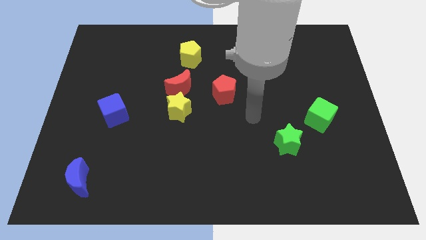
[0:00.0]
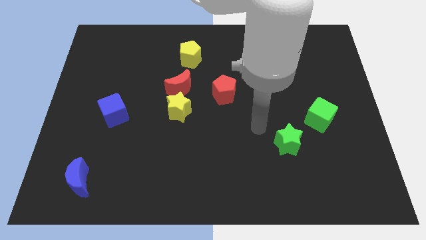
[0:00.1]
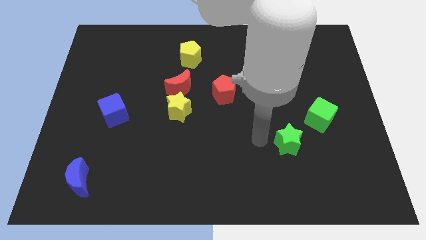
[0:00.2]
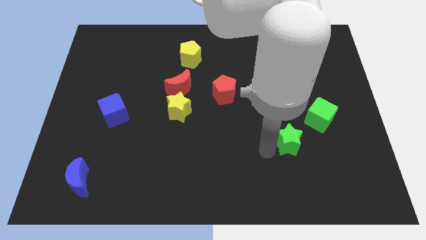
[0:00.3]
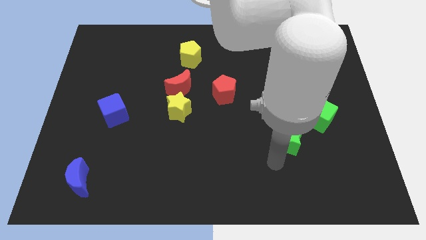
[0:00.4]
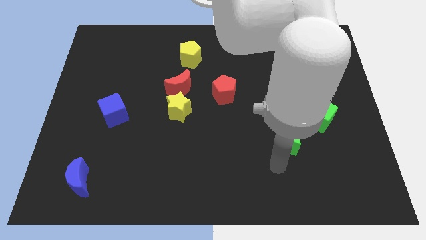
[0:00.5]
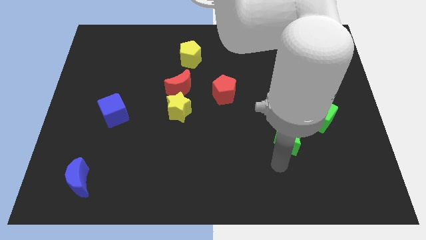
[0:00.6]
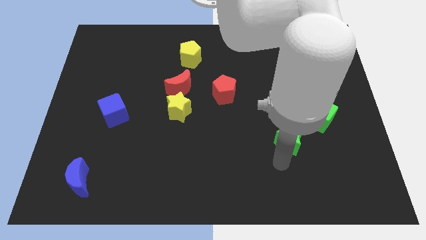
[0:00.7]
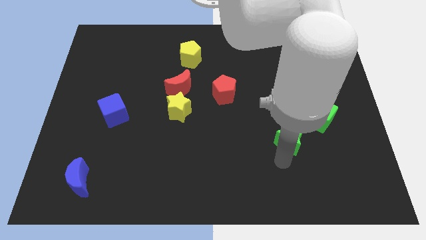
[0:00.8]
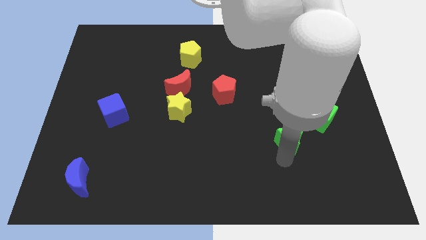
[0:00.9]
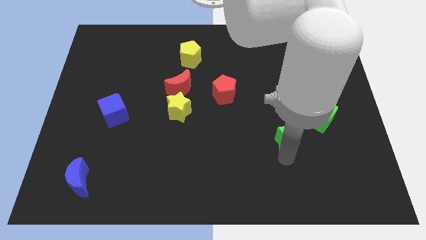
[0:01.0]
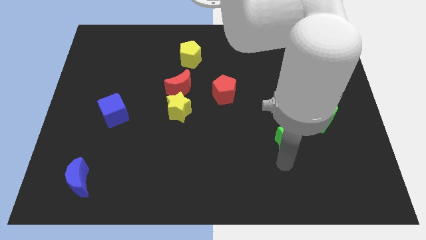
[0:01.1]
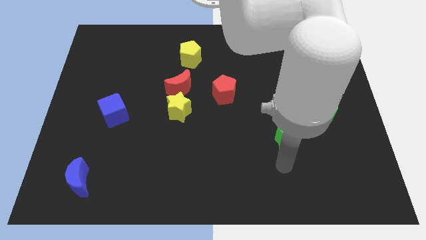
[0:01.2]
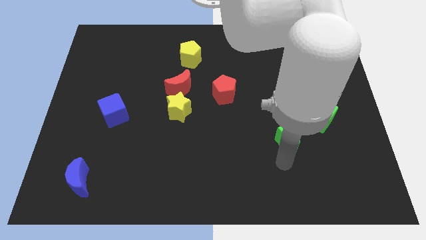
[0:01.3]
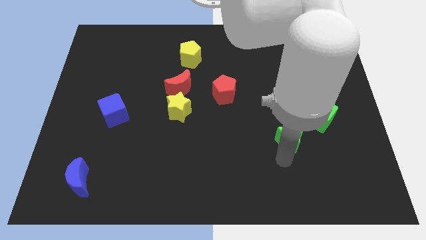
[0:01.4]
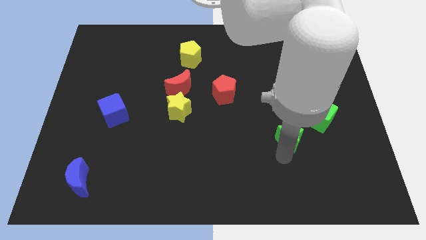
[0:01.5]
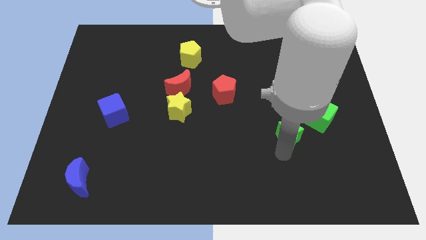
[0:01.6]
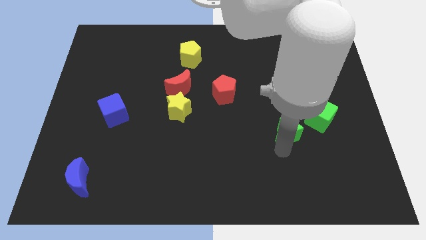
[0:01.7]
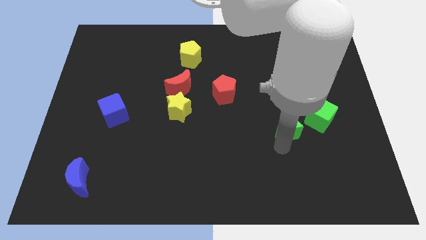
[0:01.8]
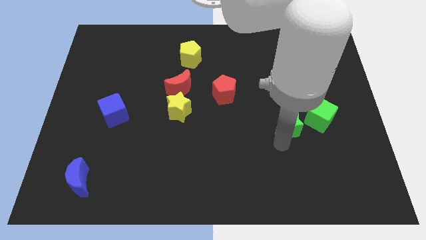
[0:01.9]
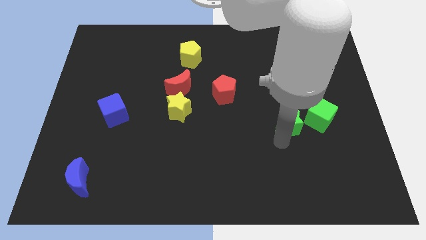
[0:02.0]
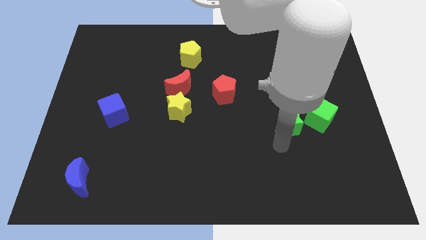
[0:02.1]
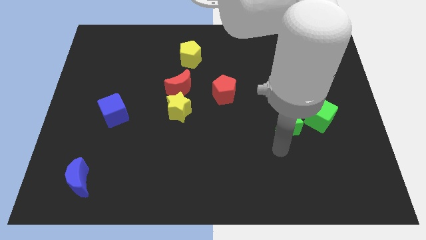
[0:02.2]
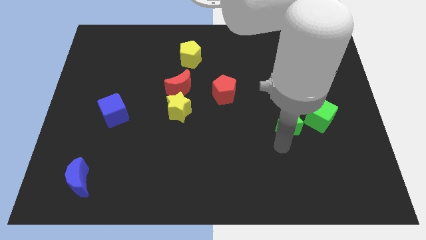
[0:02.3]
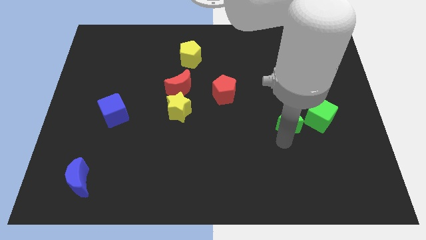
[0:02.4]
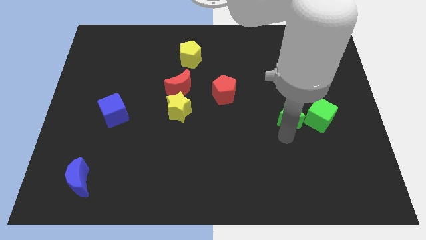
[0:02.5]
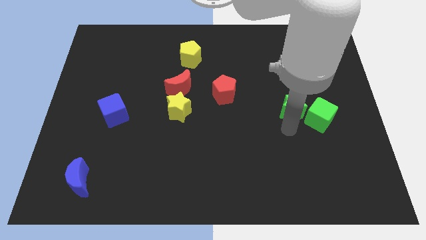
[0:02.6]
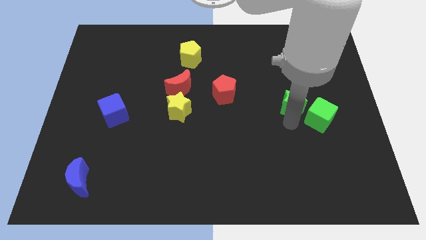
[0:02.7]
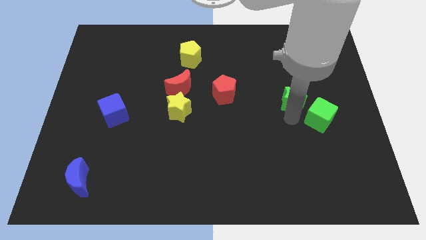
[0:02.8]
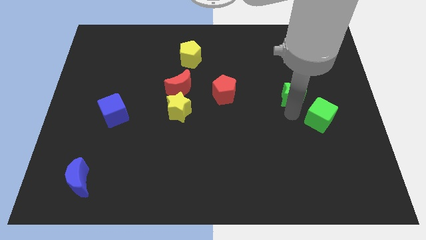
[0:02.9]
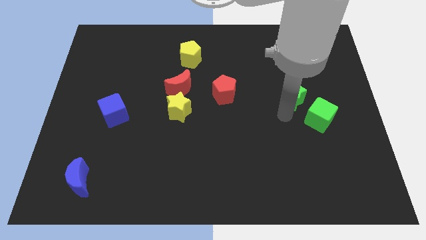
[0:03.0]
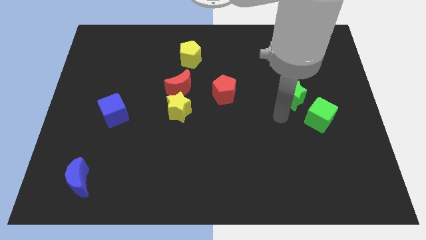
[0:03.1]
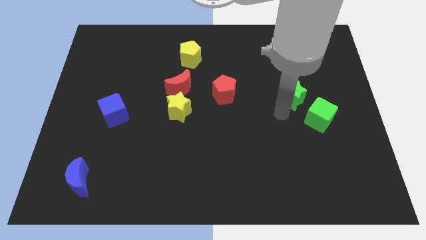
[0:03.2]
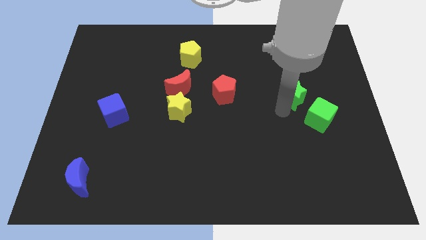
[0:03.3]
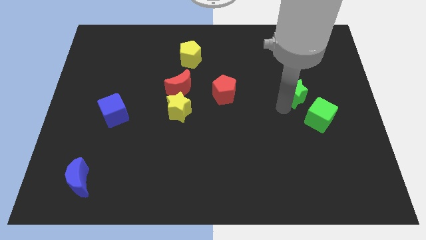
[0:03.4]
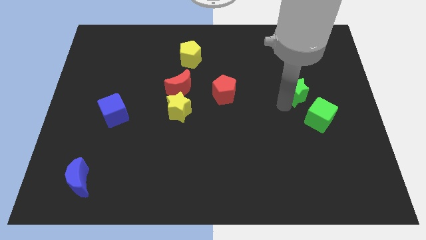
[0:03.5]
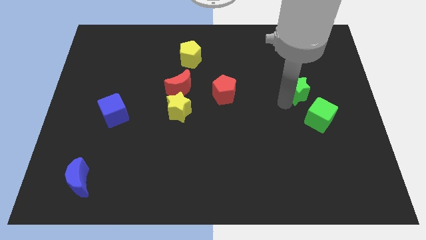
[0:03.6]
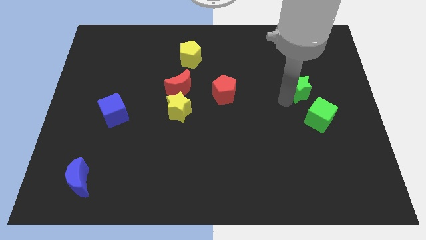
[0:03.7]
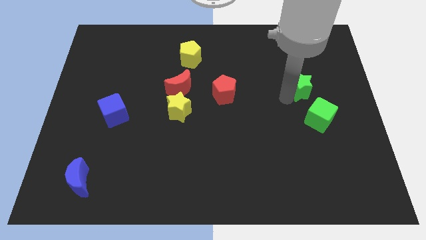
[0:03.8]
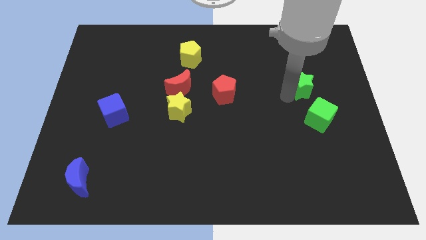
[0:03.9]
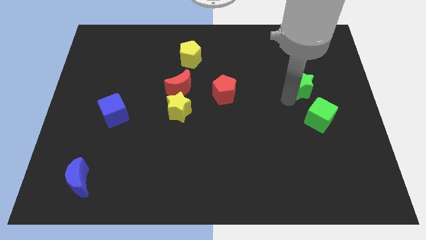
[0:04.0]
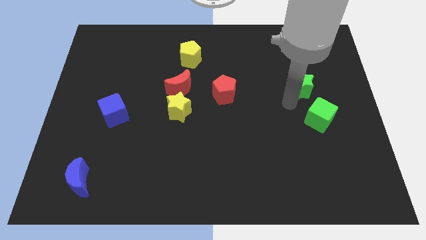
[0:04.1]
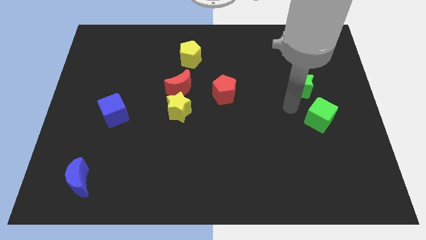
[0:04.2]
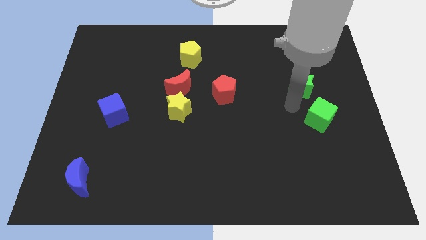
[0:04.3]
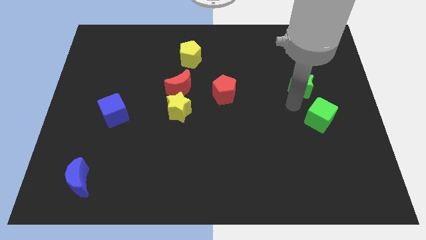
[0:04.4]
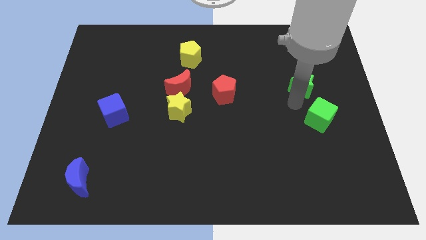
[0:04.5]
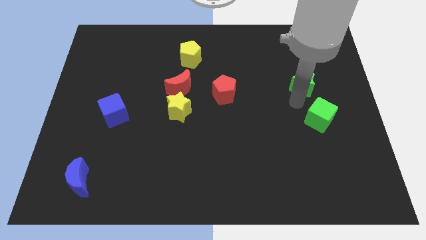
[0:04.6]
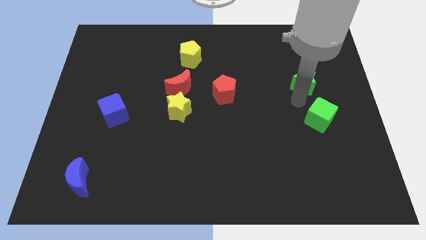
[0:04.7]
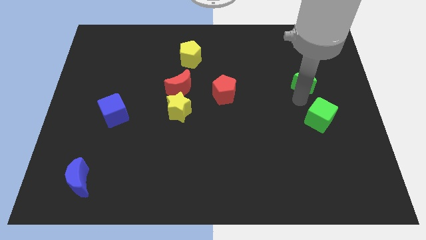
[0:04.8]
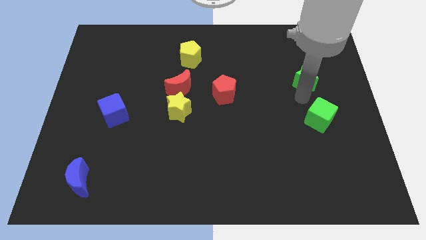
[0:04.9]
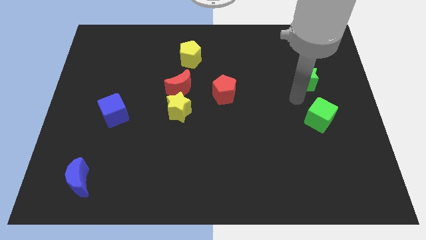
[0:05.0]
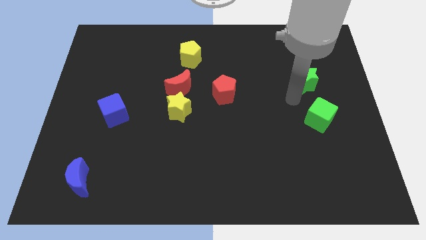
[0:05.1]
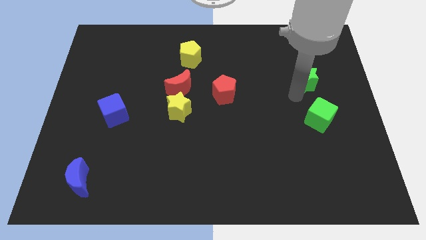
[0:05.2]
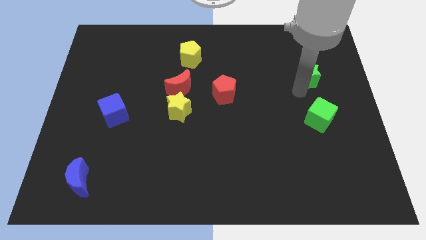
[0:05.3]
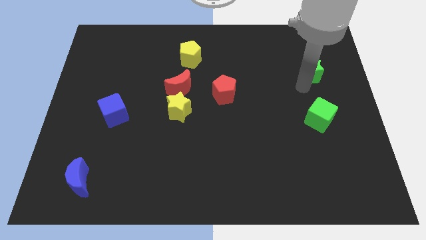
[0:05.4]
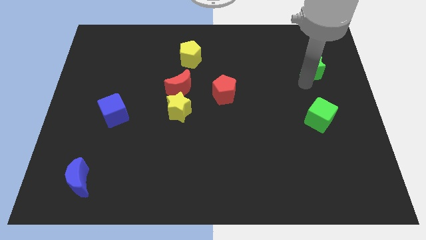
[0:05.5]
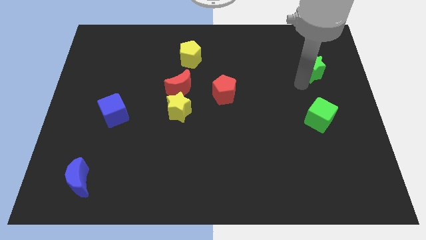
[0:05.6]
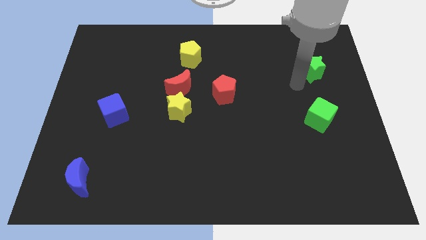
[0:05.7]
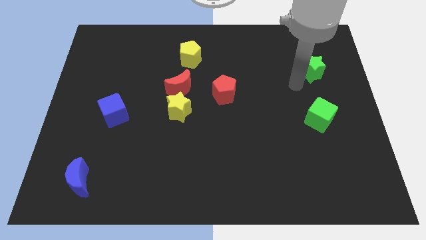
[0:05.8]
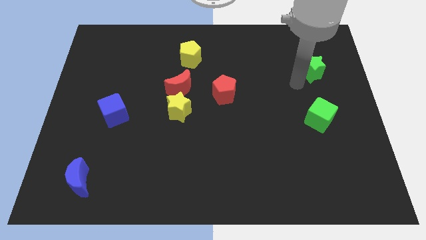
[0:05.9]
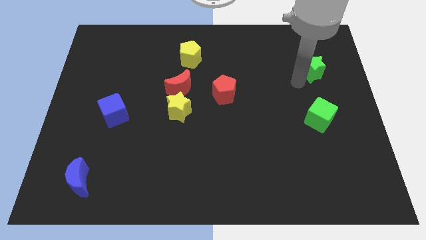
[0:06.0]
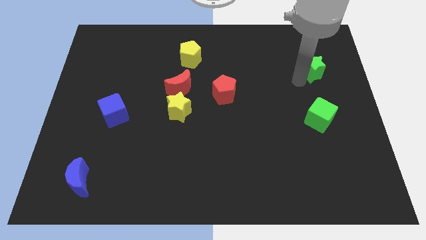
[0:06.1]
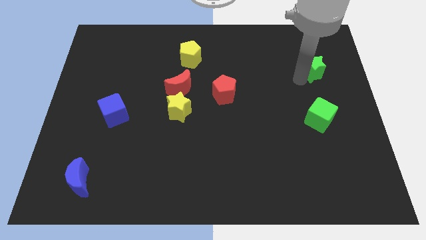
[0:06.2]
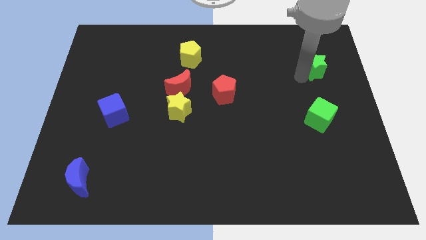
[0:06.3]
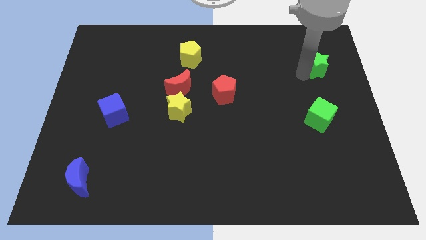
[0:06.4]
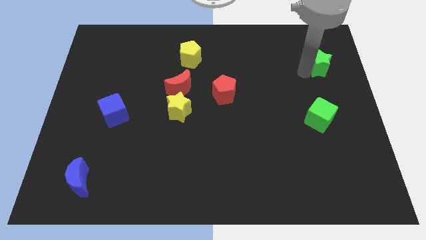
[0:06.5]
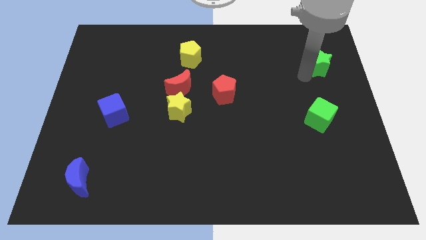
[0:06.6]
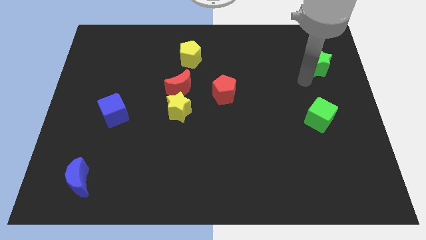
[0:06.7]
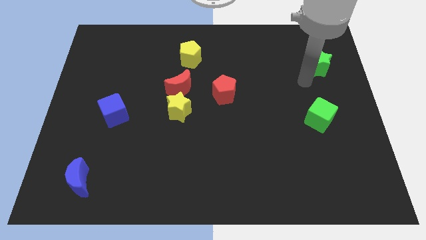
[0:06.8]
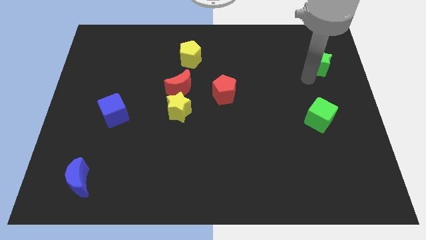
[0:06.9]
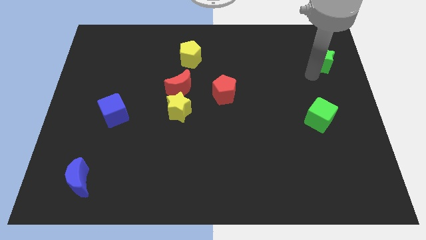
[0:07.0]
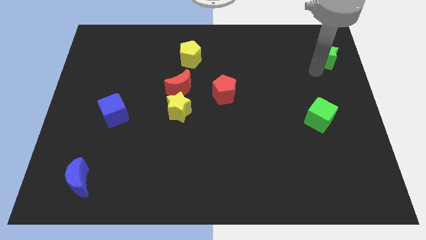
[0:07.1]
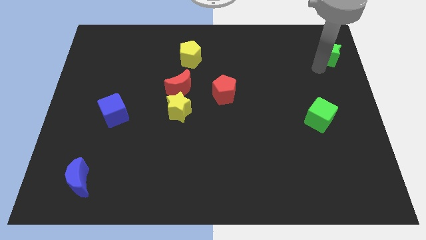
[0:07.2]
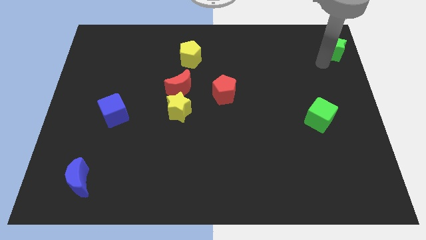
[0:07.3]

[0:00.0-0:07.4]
slide the green star to the top right

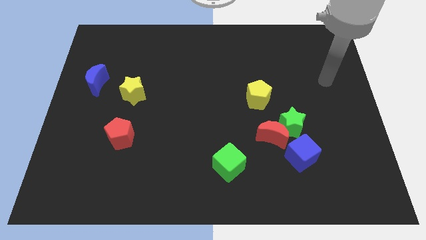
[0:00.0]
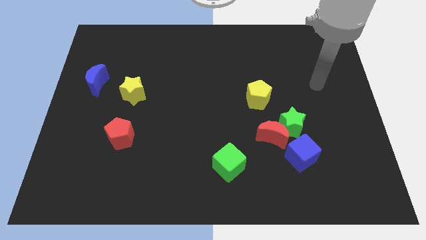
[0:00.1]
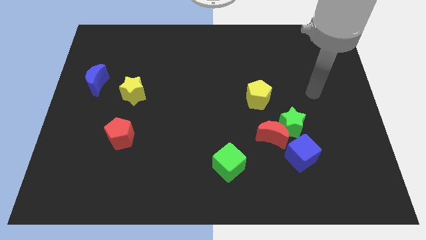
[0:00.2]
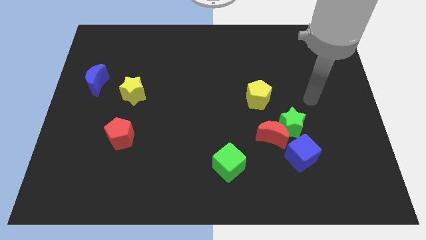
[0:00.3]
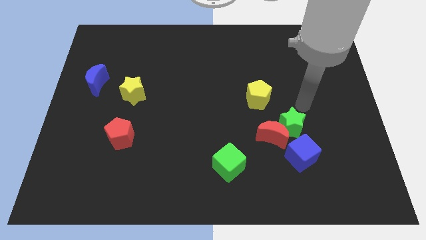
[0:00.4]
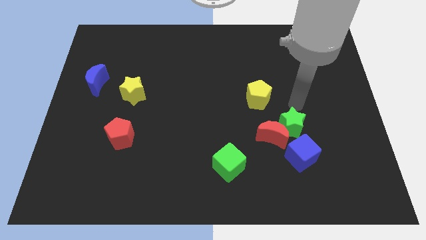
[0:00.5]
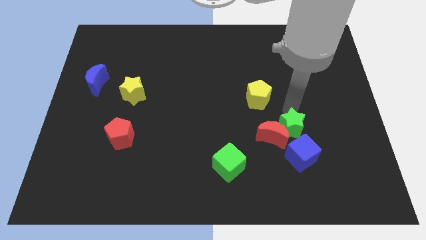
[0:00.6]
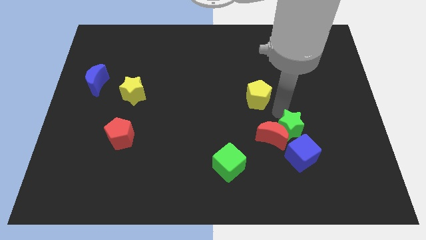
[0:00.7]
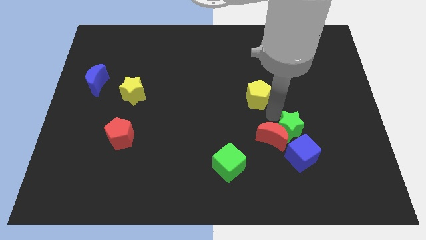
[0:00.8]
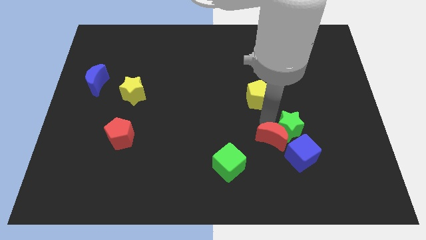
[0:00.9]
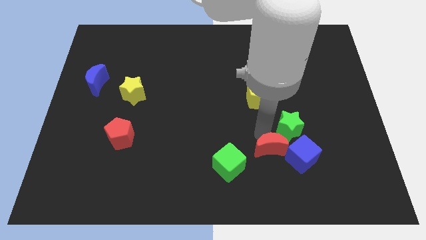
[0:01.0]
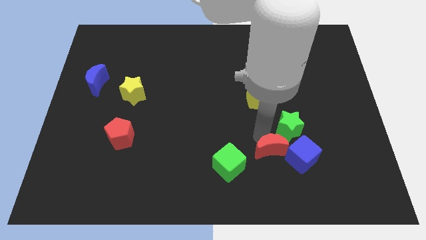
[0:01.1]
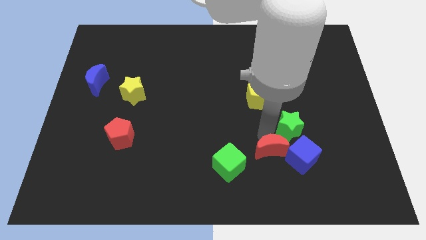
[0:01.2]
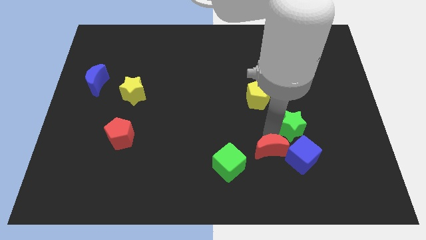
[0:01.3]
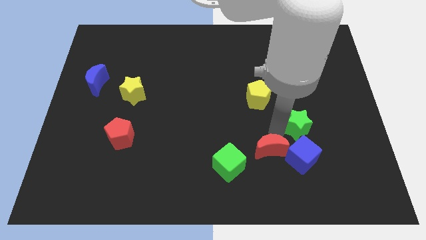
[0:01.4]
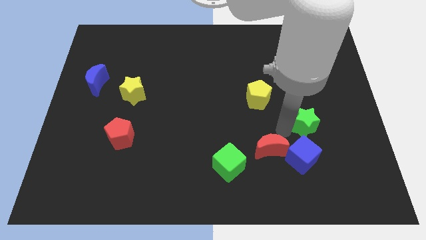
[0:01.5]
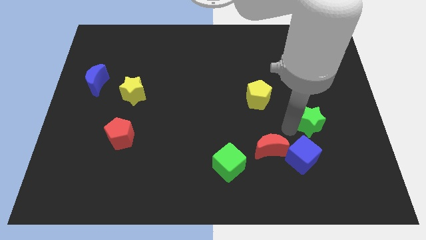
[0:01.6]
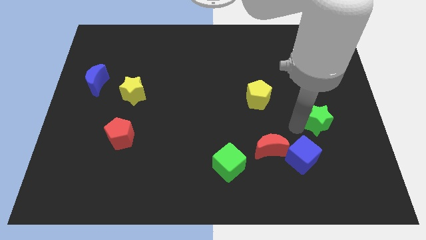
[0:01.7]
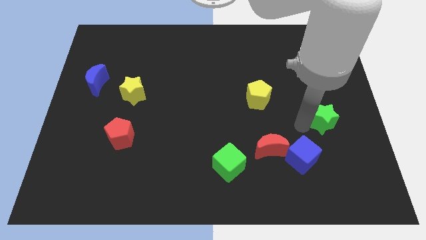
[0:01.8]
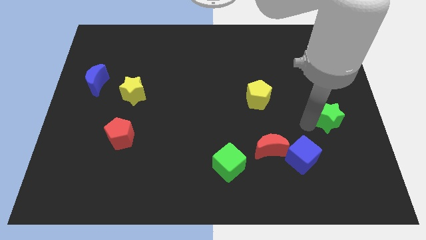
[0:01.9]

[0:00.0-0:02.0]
move the green star to the right side of the board
